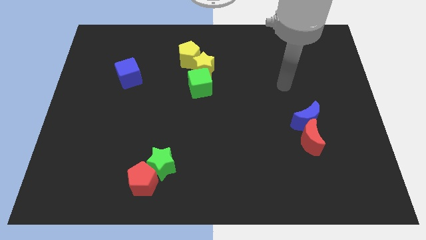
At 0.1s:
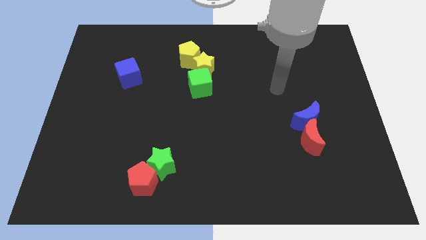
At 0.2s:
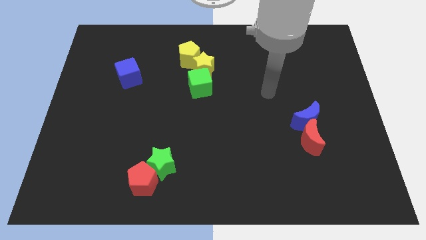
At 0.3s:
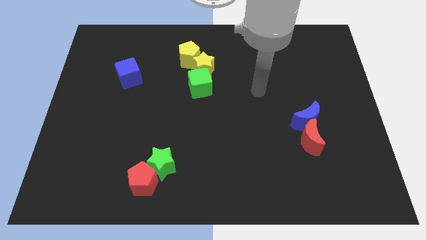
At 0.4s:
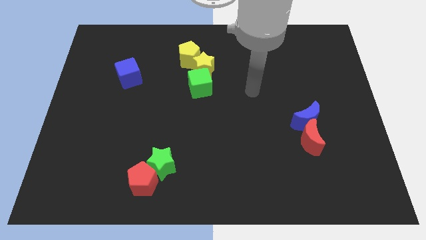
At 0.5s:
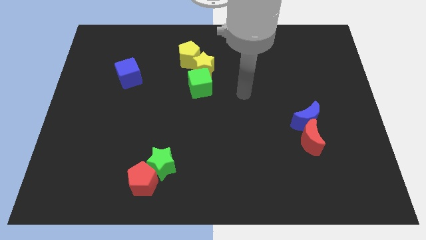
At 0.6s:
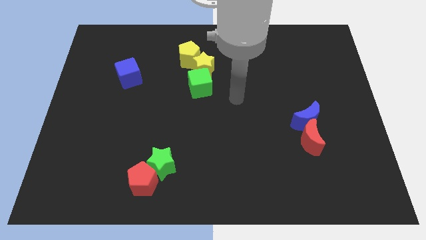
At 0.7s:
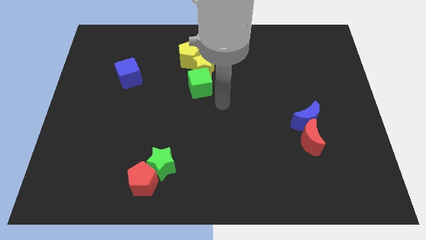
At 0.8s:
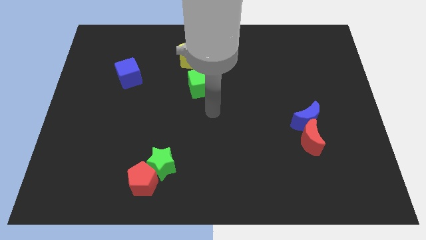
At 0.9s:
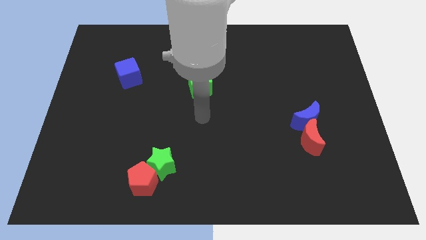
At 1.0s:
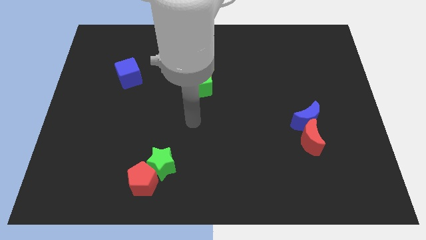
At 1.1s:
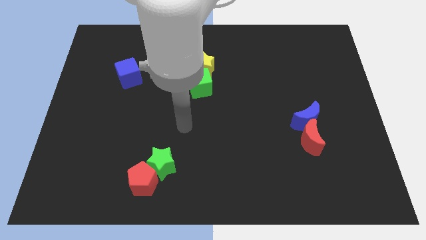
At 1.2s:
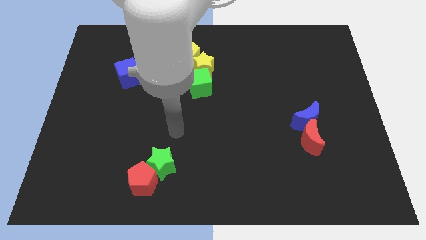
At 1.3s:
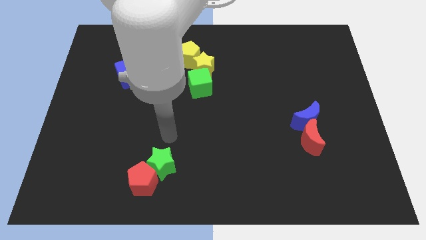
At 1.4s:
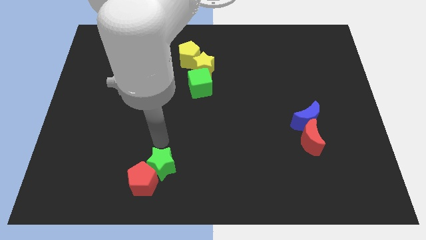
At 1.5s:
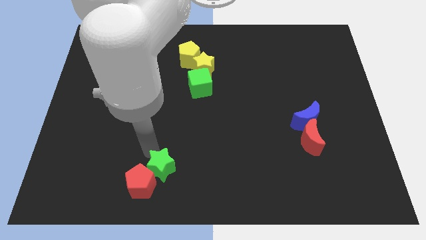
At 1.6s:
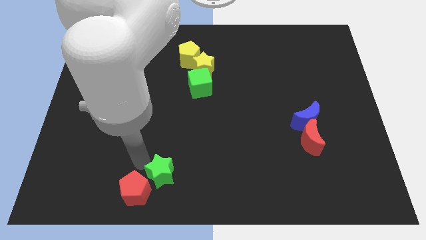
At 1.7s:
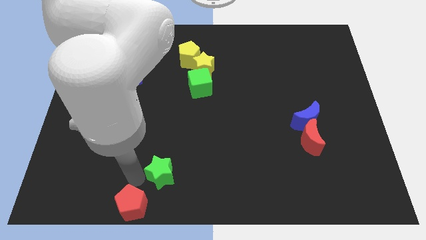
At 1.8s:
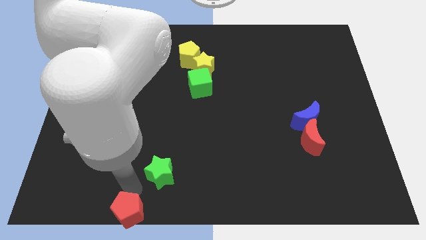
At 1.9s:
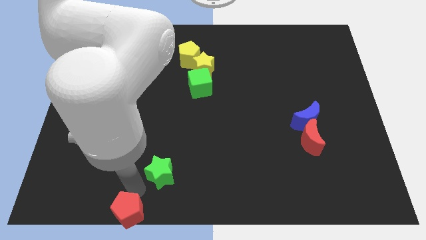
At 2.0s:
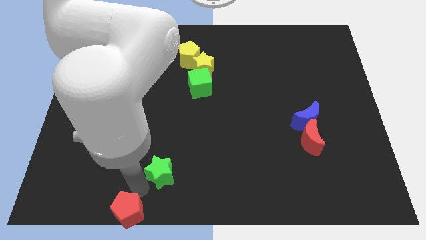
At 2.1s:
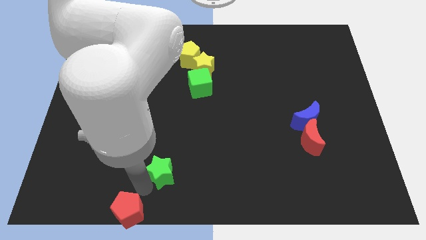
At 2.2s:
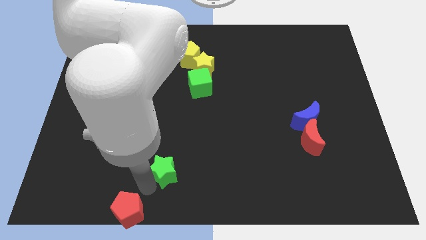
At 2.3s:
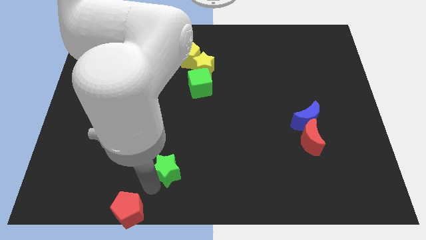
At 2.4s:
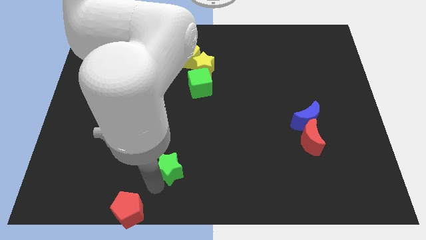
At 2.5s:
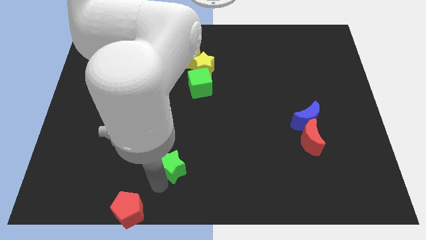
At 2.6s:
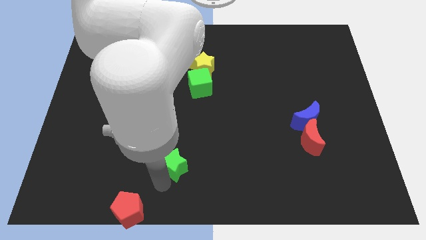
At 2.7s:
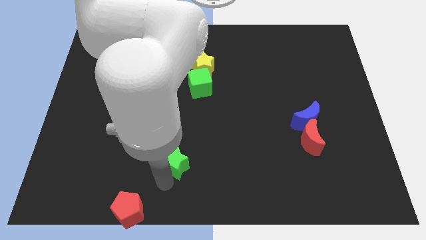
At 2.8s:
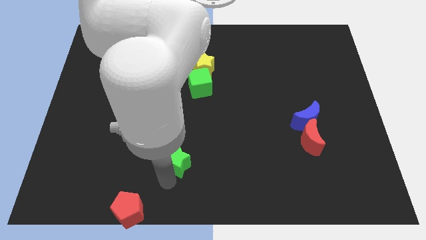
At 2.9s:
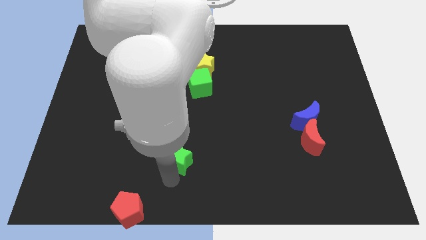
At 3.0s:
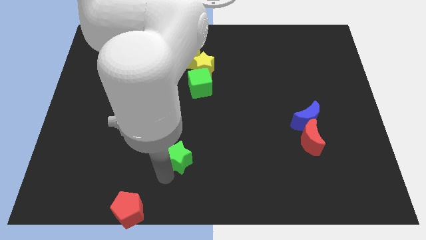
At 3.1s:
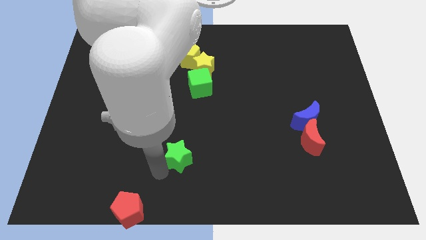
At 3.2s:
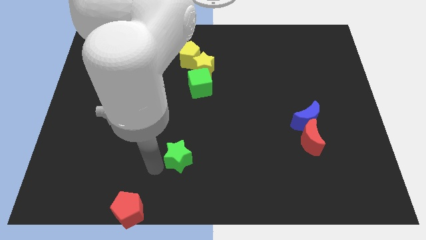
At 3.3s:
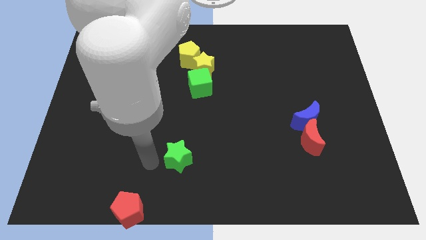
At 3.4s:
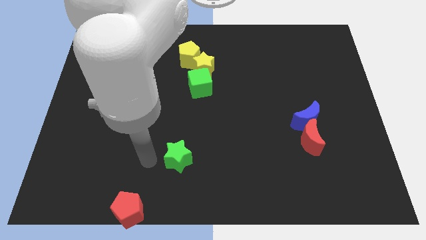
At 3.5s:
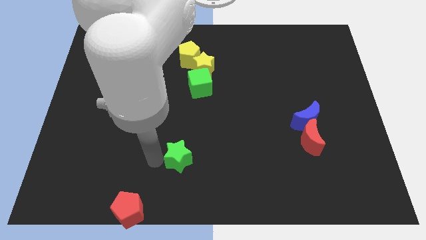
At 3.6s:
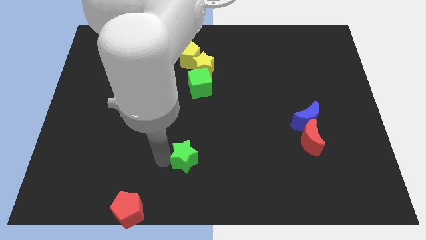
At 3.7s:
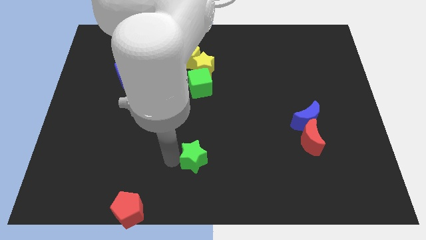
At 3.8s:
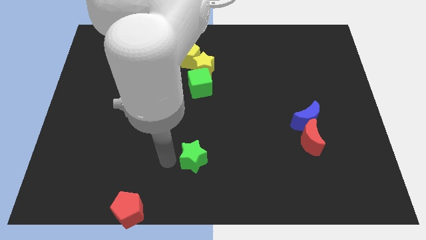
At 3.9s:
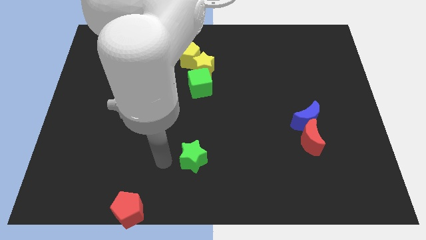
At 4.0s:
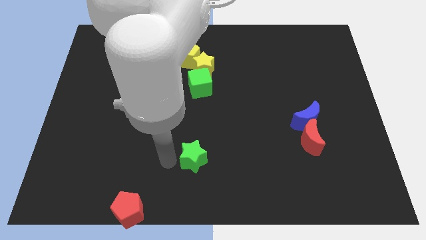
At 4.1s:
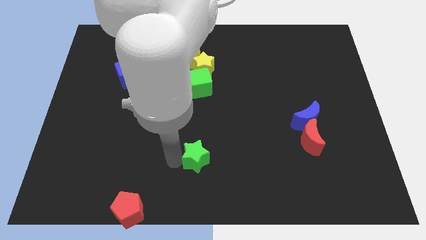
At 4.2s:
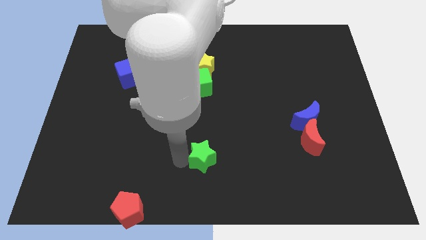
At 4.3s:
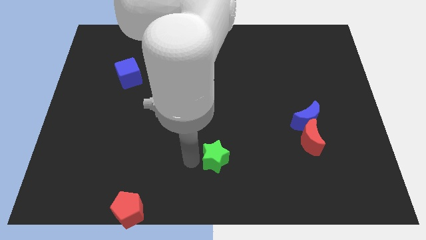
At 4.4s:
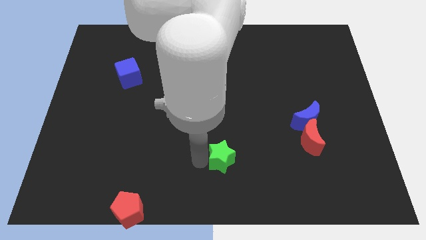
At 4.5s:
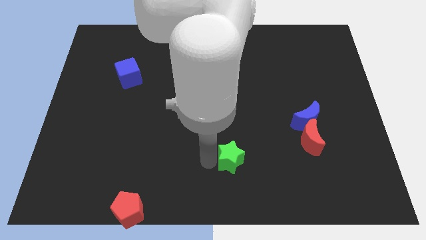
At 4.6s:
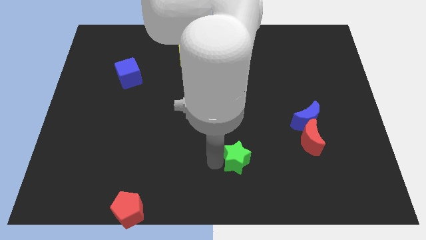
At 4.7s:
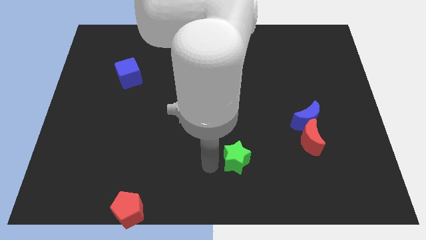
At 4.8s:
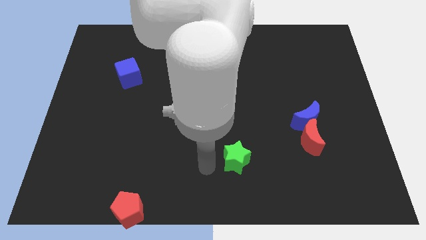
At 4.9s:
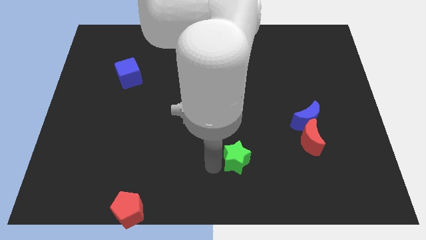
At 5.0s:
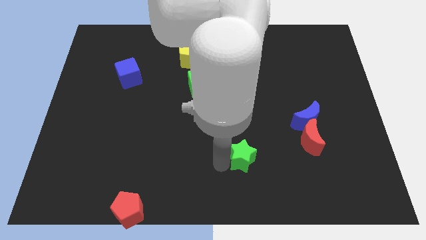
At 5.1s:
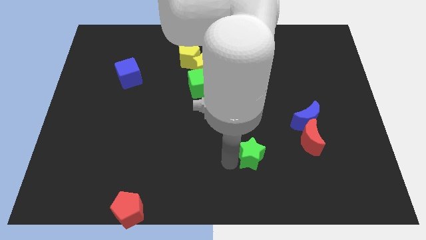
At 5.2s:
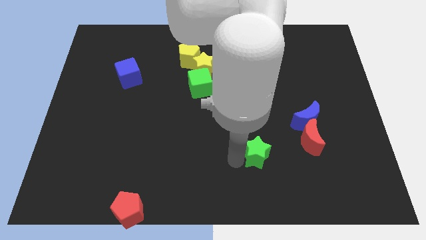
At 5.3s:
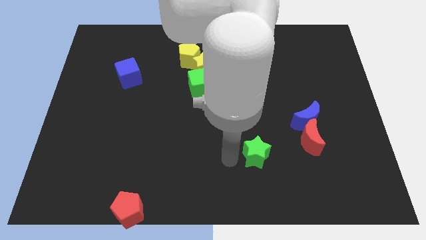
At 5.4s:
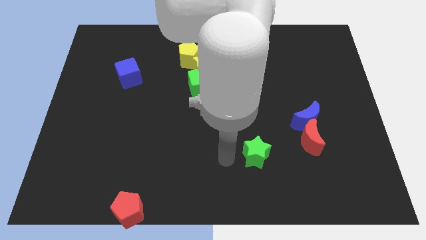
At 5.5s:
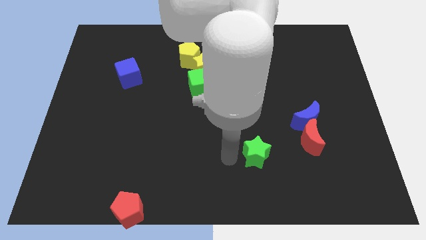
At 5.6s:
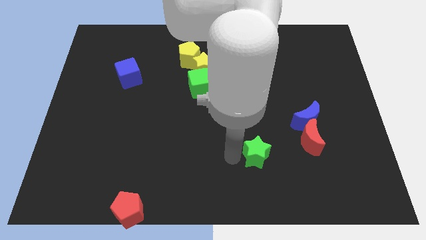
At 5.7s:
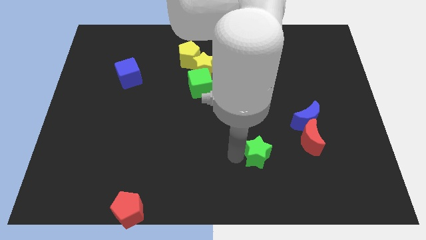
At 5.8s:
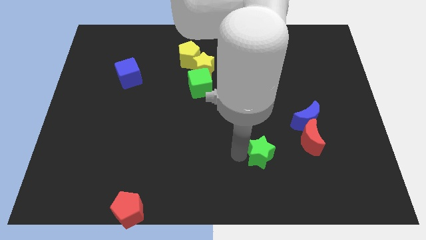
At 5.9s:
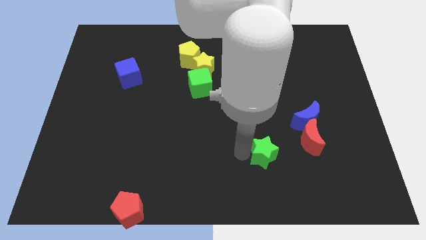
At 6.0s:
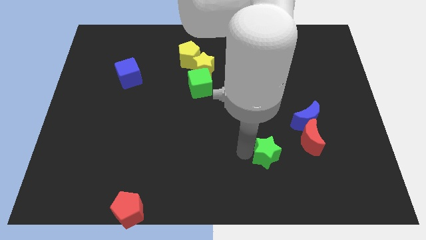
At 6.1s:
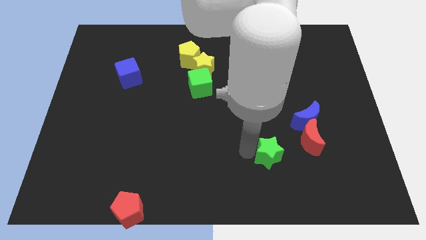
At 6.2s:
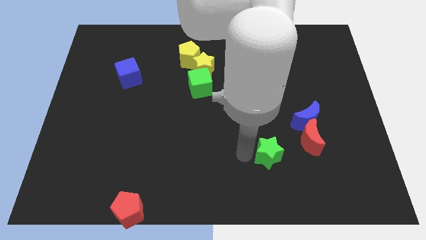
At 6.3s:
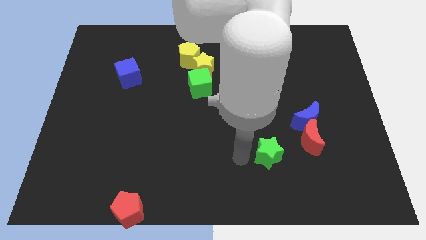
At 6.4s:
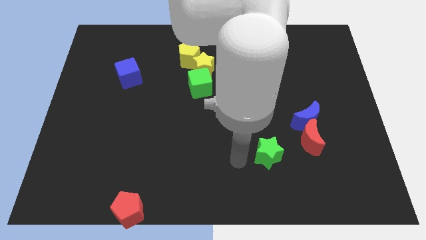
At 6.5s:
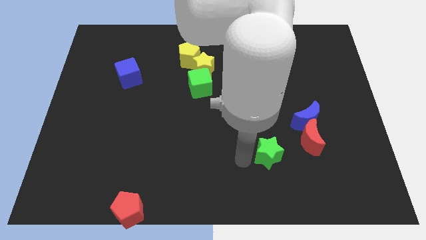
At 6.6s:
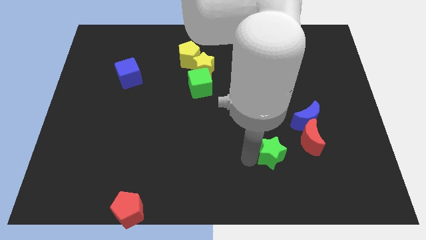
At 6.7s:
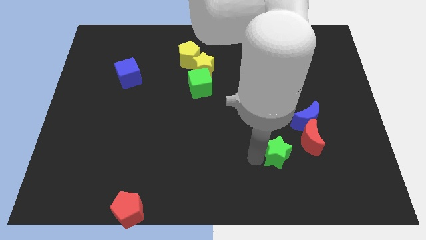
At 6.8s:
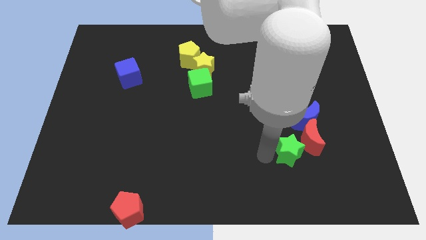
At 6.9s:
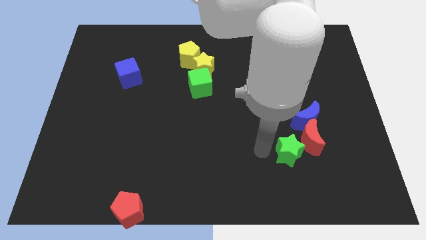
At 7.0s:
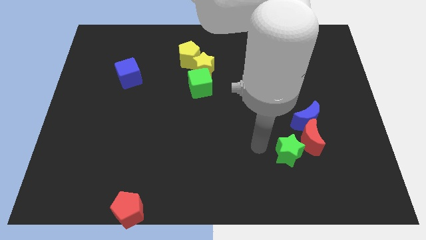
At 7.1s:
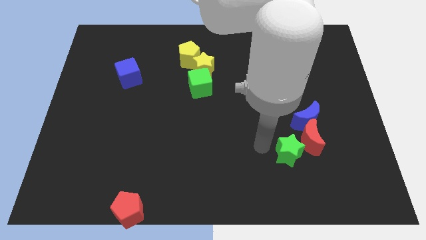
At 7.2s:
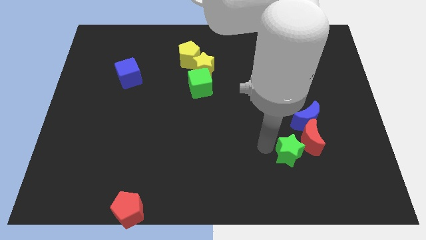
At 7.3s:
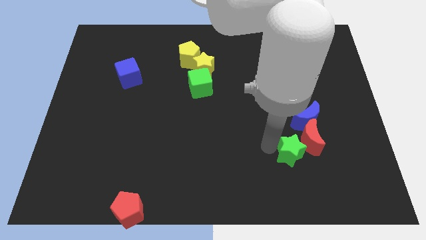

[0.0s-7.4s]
put the green star to the bottom of the blue moon
